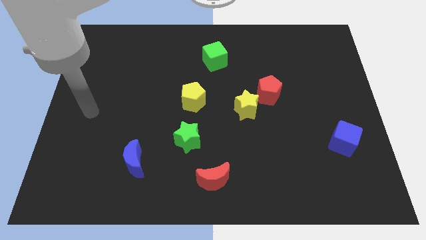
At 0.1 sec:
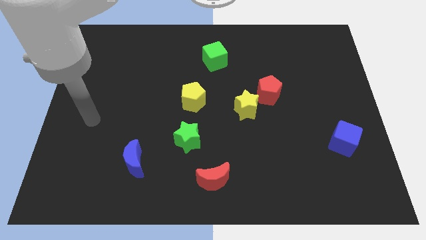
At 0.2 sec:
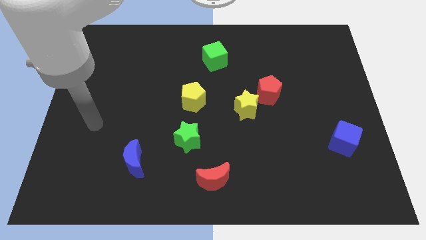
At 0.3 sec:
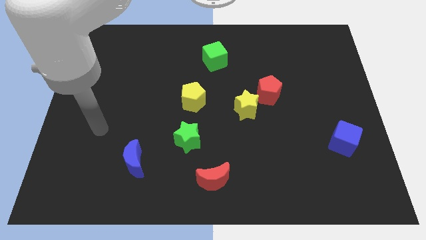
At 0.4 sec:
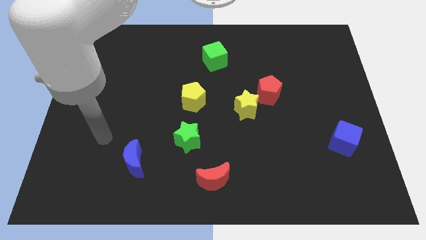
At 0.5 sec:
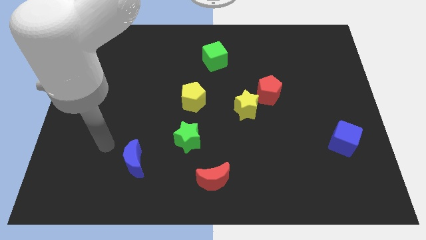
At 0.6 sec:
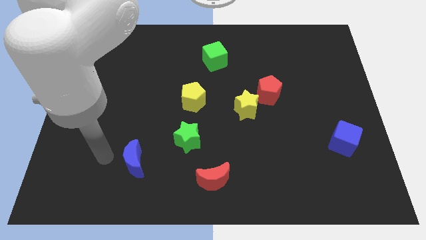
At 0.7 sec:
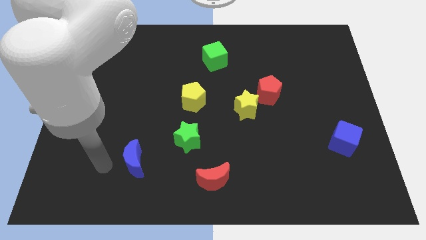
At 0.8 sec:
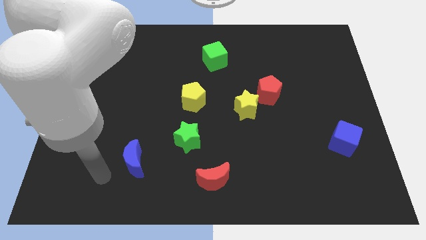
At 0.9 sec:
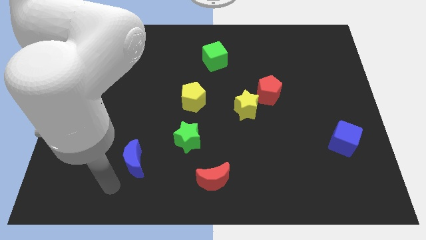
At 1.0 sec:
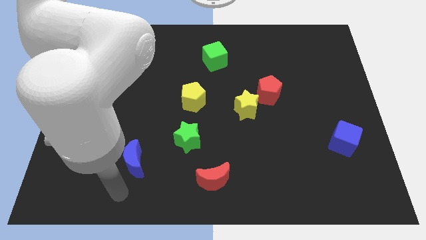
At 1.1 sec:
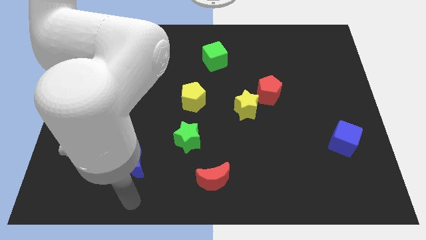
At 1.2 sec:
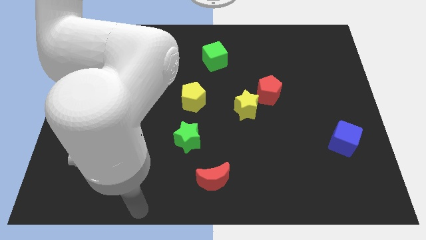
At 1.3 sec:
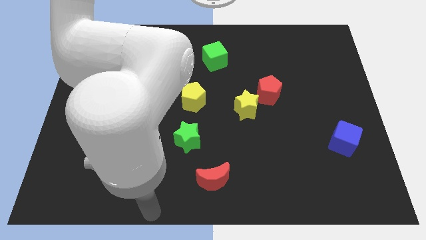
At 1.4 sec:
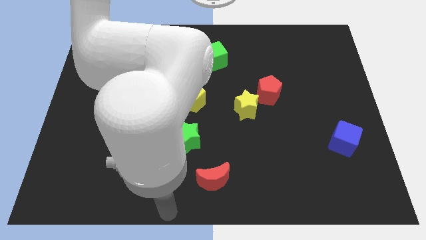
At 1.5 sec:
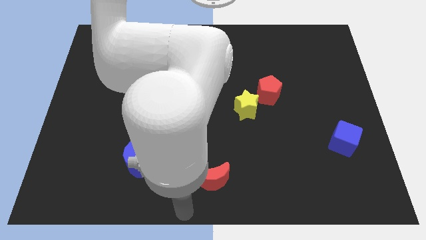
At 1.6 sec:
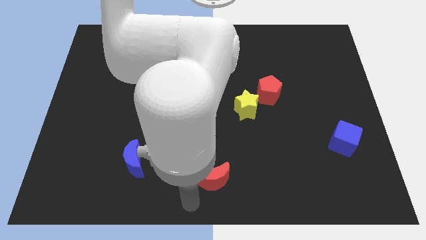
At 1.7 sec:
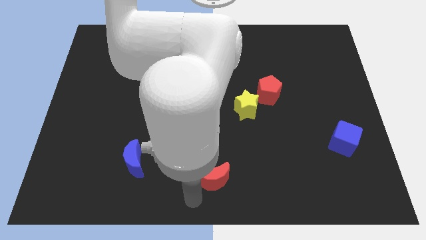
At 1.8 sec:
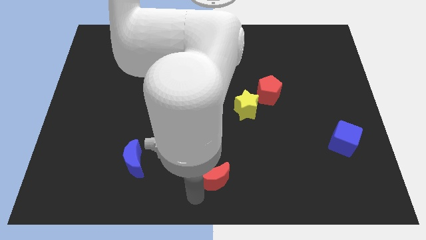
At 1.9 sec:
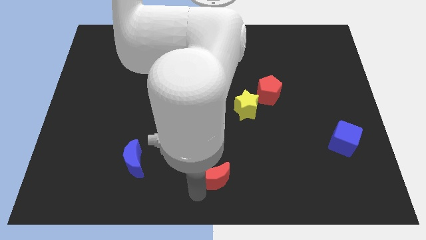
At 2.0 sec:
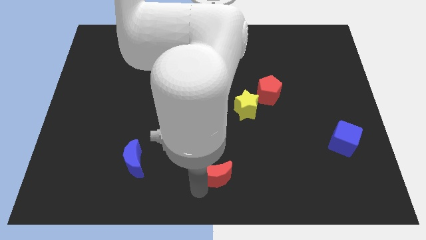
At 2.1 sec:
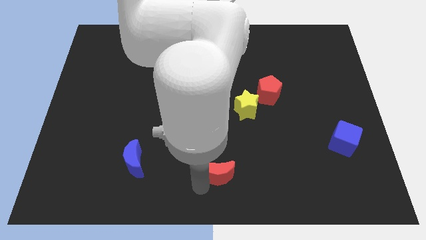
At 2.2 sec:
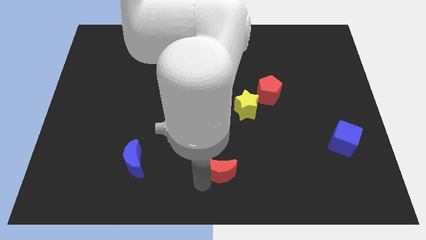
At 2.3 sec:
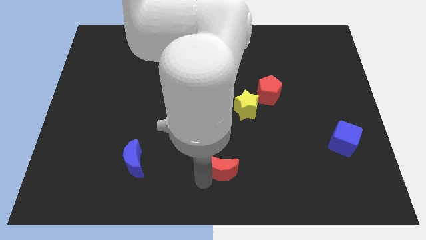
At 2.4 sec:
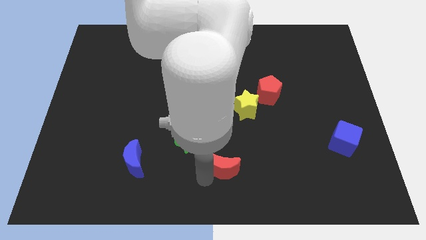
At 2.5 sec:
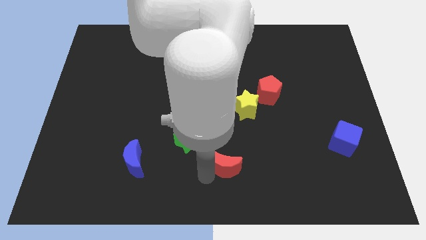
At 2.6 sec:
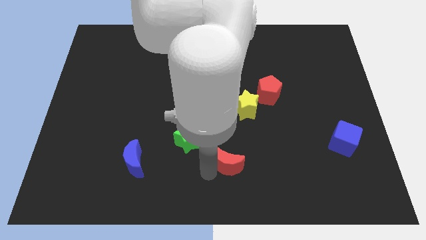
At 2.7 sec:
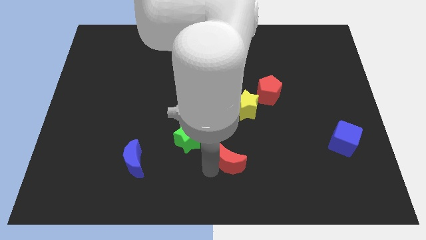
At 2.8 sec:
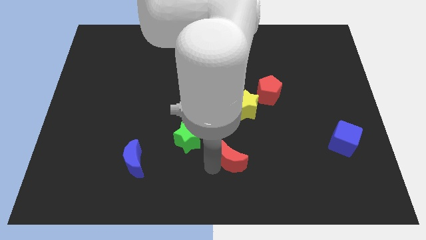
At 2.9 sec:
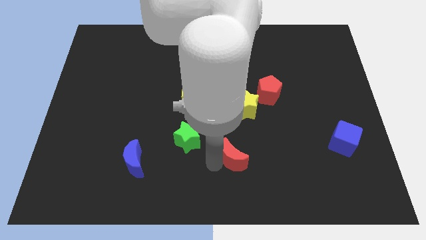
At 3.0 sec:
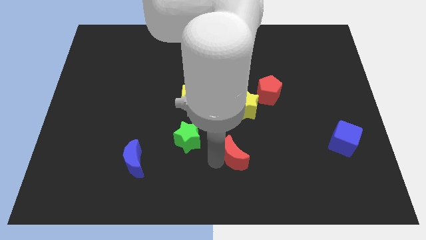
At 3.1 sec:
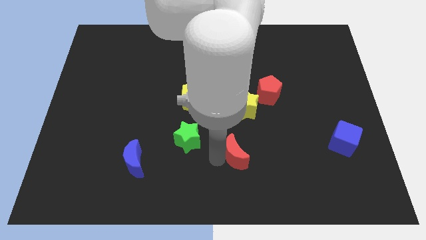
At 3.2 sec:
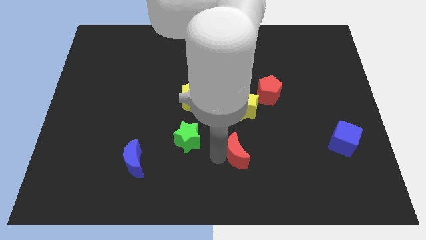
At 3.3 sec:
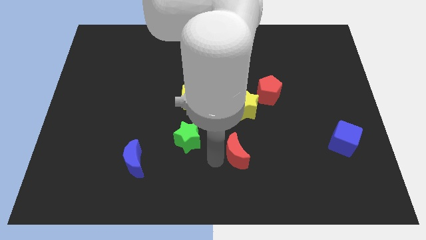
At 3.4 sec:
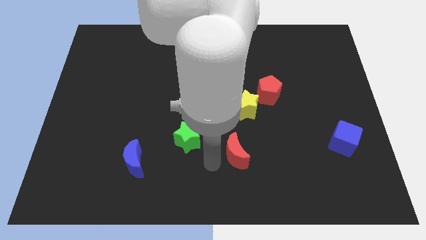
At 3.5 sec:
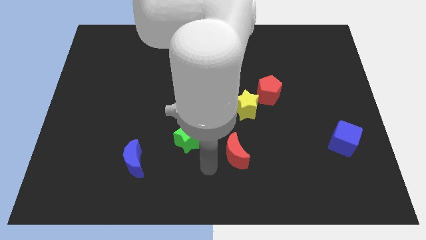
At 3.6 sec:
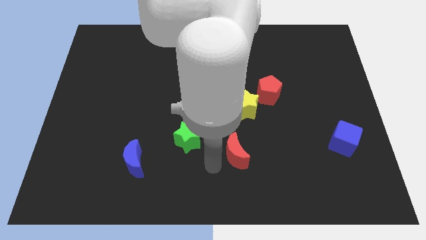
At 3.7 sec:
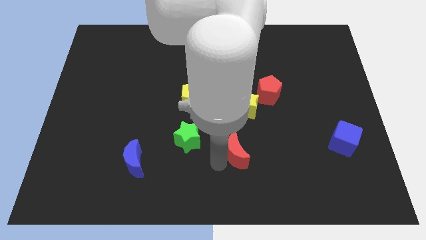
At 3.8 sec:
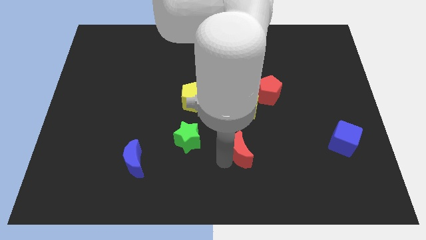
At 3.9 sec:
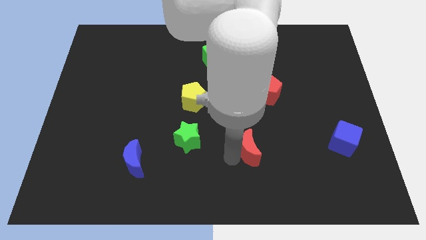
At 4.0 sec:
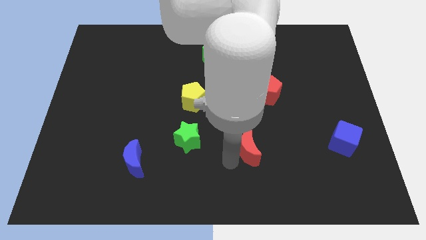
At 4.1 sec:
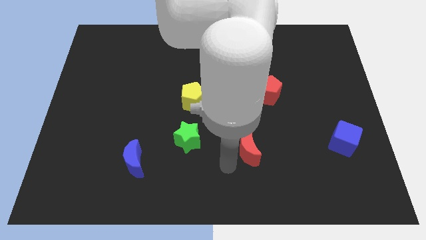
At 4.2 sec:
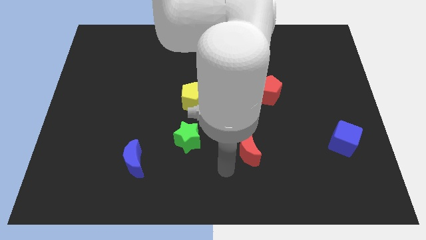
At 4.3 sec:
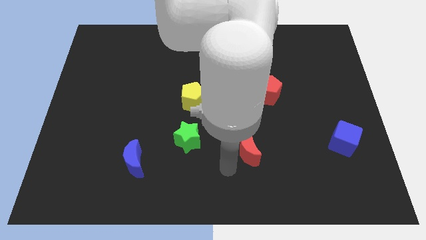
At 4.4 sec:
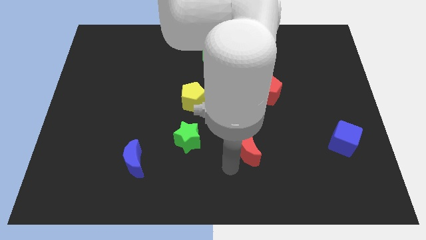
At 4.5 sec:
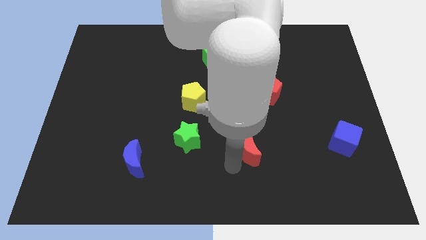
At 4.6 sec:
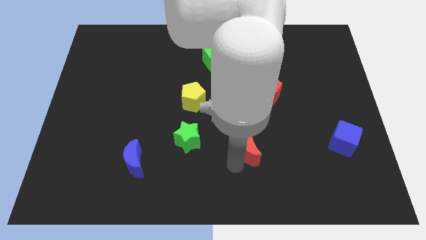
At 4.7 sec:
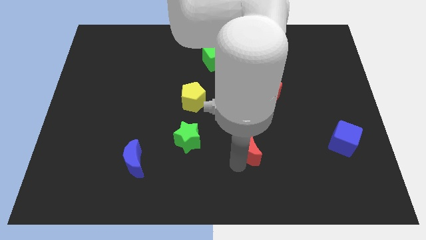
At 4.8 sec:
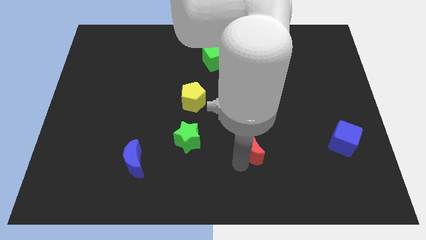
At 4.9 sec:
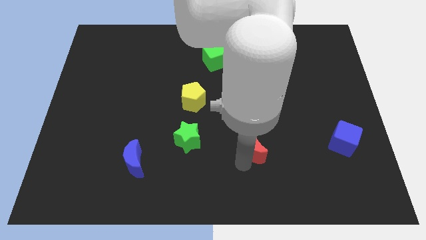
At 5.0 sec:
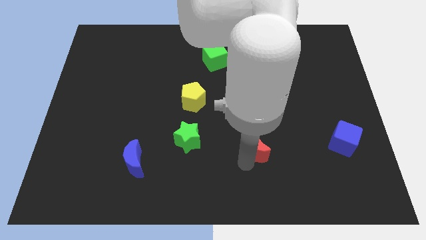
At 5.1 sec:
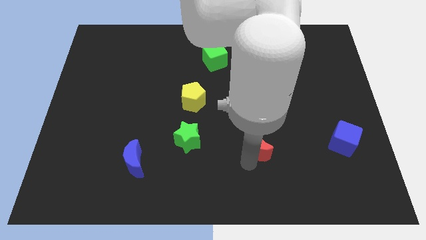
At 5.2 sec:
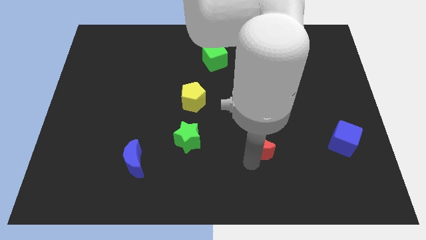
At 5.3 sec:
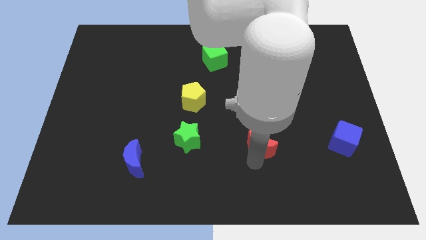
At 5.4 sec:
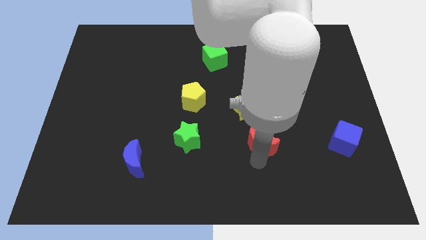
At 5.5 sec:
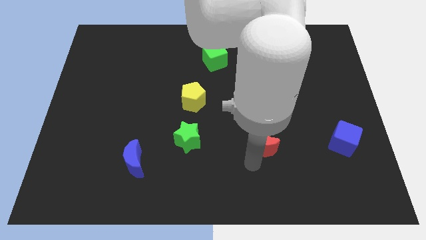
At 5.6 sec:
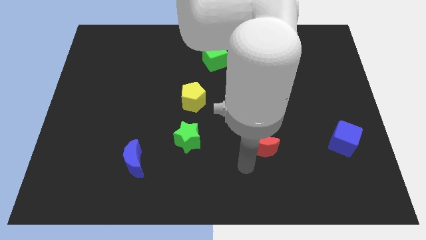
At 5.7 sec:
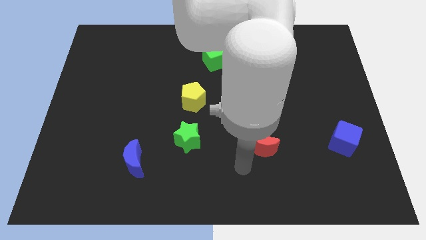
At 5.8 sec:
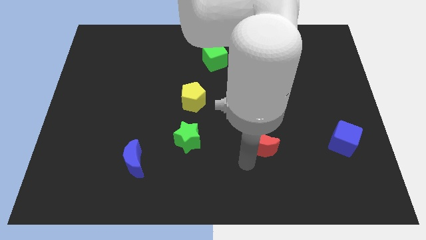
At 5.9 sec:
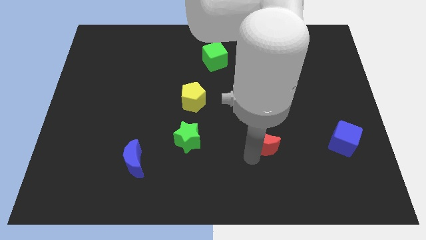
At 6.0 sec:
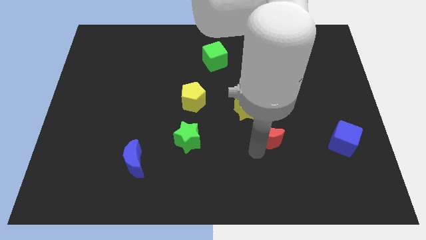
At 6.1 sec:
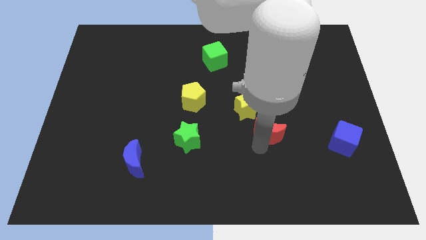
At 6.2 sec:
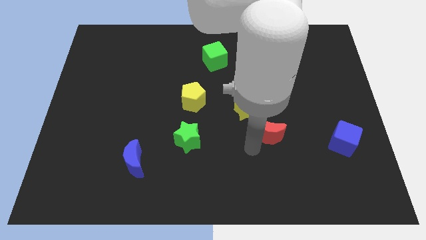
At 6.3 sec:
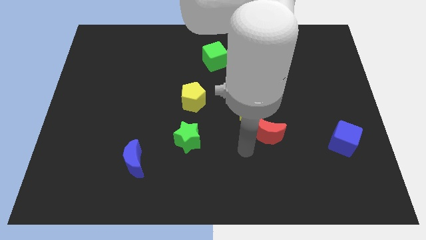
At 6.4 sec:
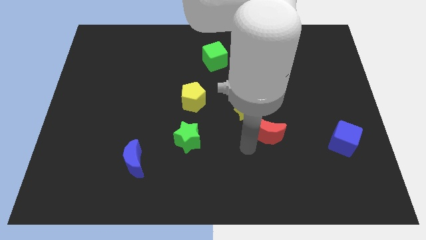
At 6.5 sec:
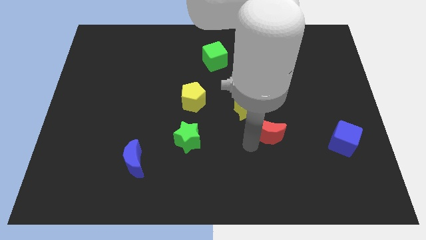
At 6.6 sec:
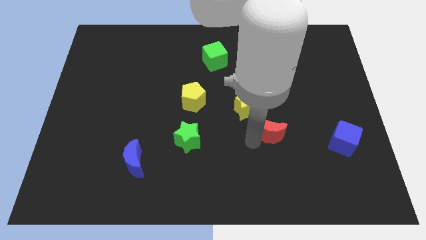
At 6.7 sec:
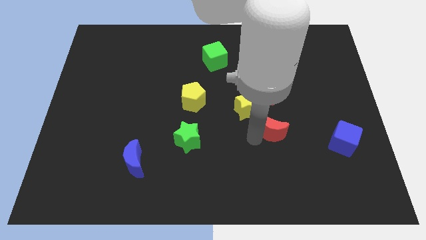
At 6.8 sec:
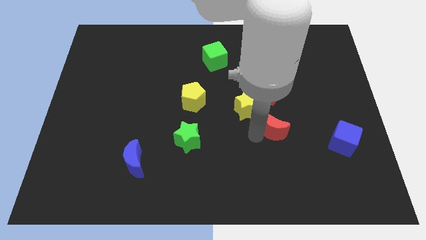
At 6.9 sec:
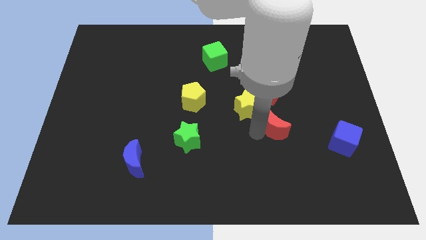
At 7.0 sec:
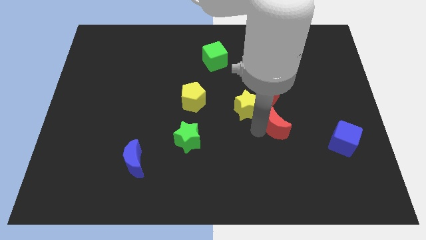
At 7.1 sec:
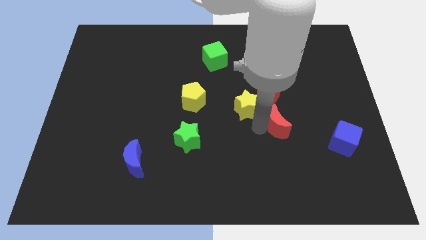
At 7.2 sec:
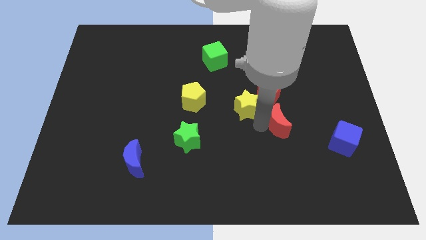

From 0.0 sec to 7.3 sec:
move the red moon up and right diagonally

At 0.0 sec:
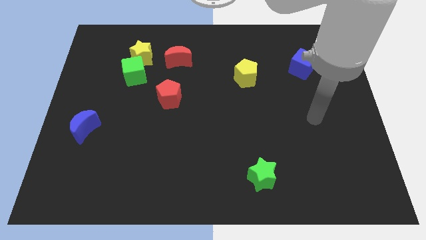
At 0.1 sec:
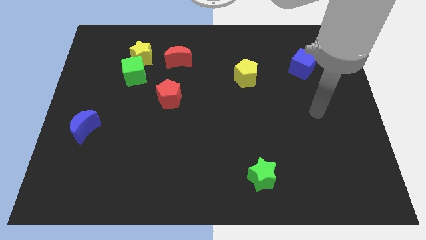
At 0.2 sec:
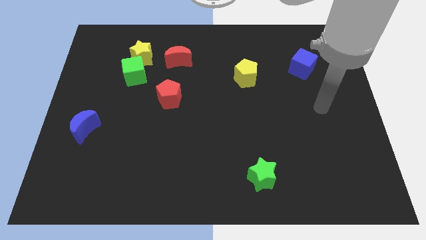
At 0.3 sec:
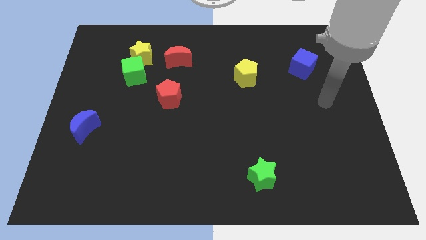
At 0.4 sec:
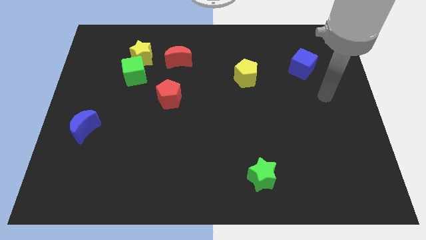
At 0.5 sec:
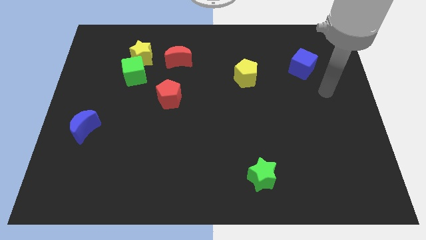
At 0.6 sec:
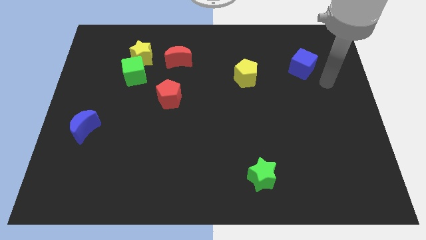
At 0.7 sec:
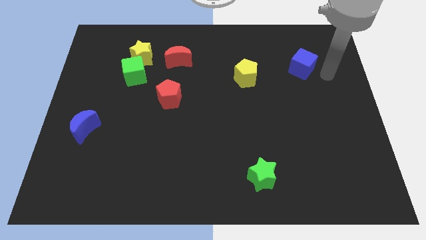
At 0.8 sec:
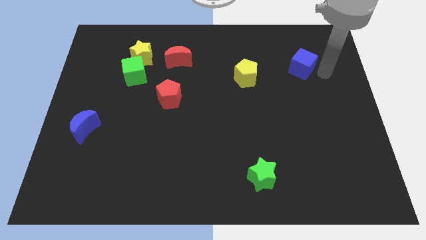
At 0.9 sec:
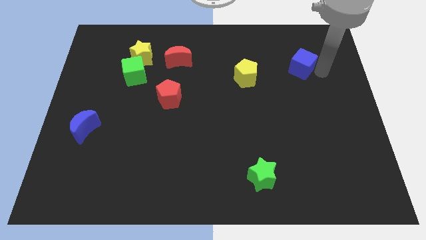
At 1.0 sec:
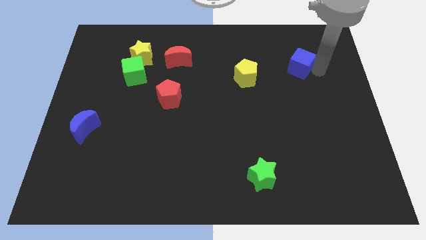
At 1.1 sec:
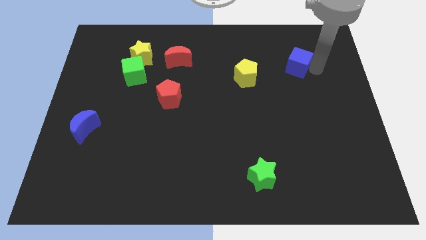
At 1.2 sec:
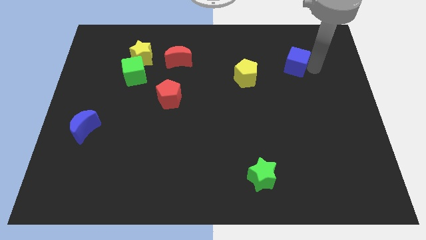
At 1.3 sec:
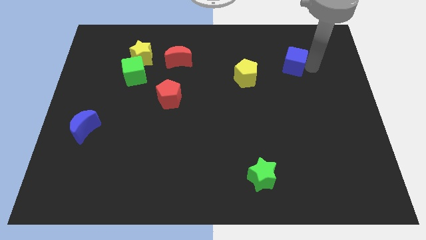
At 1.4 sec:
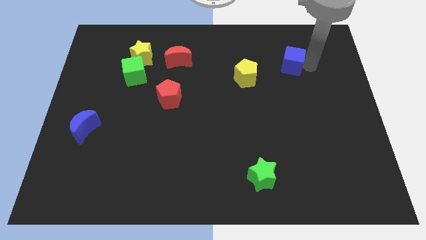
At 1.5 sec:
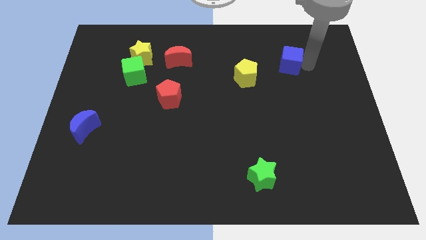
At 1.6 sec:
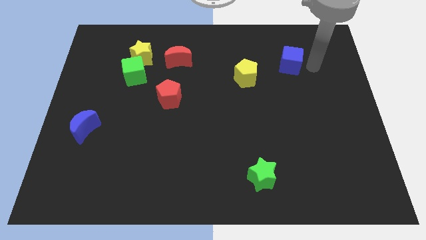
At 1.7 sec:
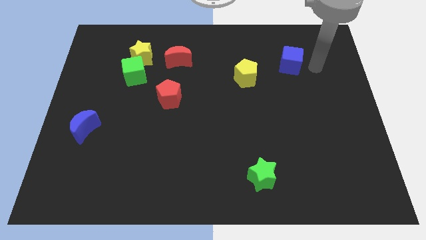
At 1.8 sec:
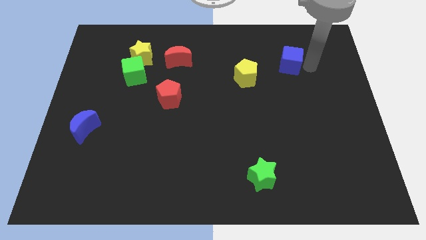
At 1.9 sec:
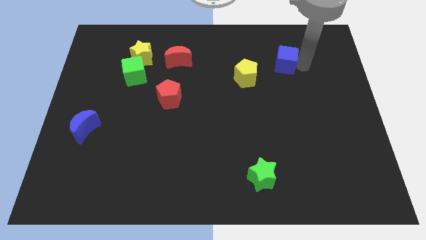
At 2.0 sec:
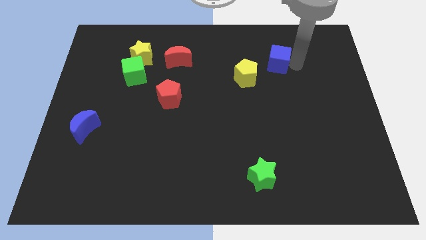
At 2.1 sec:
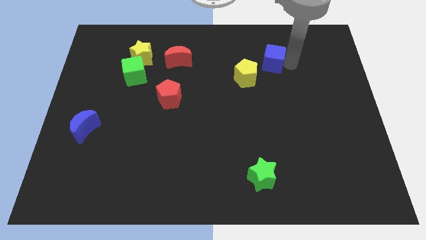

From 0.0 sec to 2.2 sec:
slightly push the blue cube left
